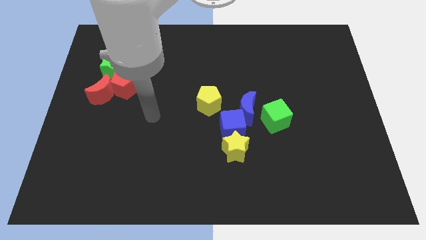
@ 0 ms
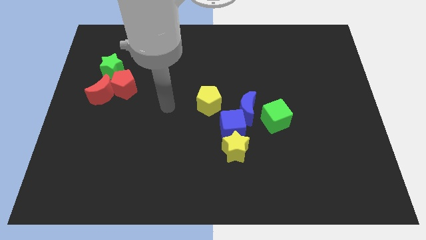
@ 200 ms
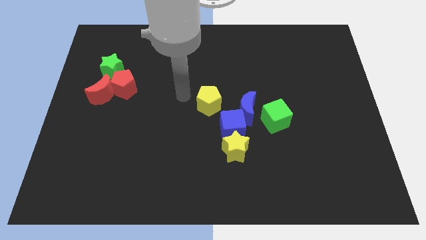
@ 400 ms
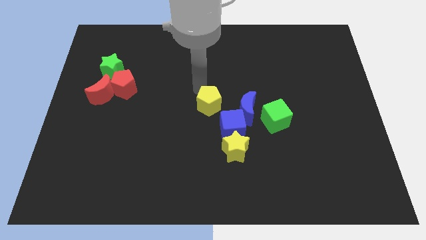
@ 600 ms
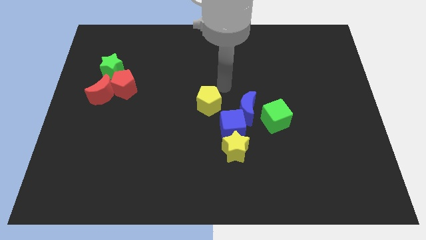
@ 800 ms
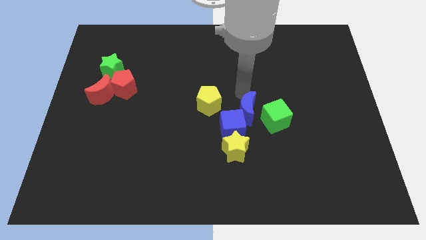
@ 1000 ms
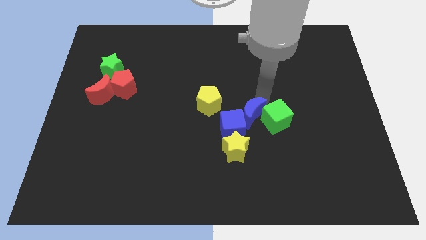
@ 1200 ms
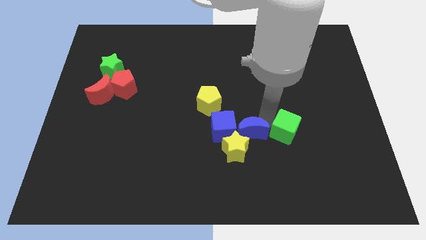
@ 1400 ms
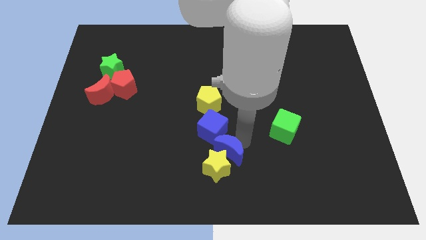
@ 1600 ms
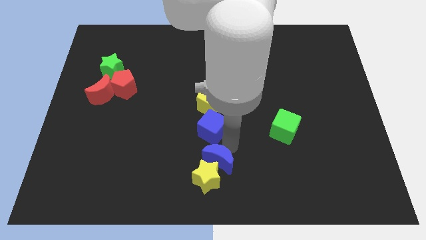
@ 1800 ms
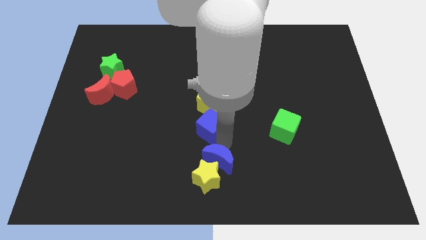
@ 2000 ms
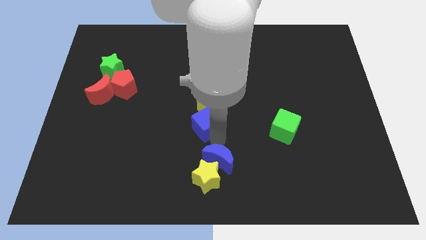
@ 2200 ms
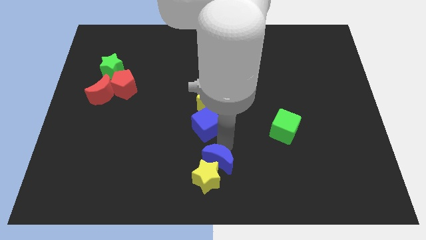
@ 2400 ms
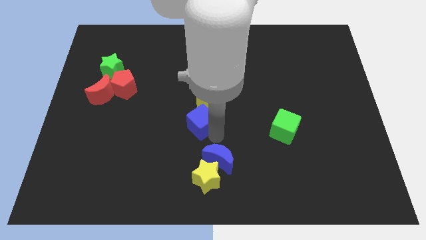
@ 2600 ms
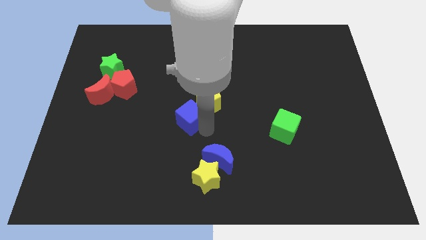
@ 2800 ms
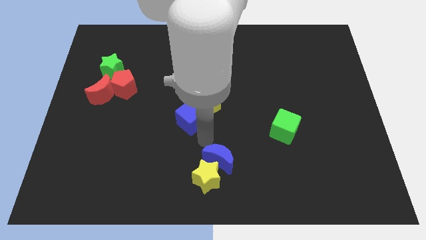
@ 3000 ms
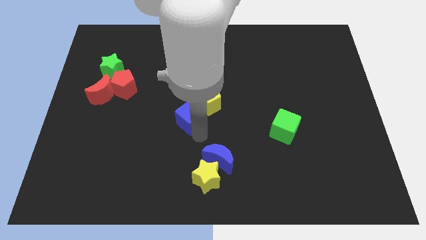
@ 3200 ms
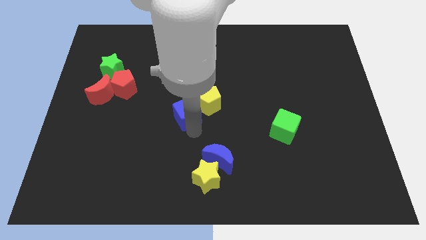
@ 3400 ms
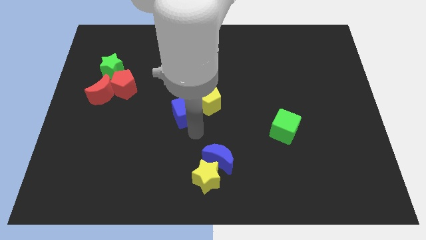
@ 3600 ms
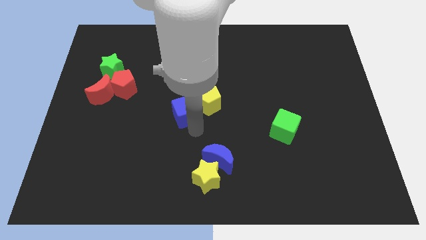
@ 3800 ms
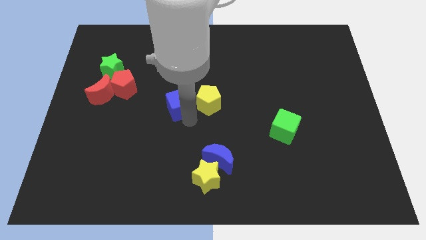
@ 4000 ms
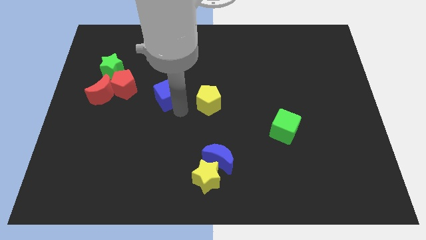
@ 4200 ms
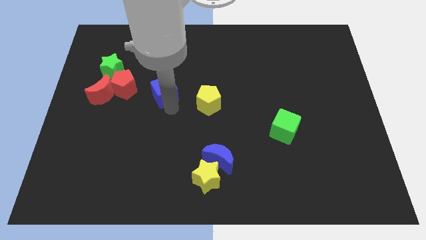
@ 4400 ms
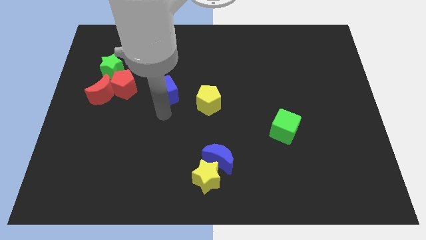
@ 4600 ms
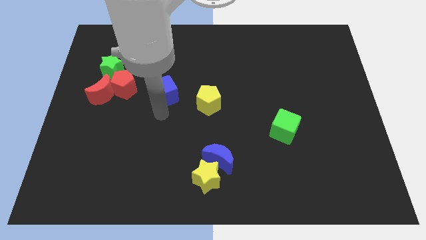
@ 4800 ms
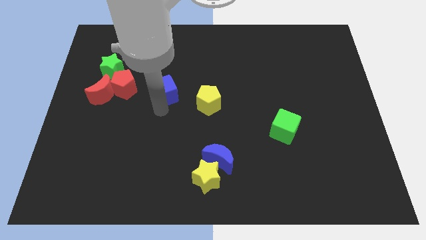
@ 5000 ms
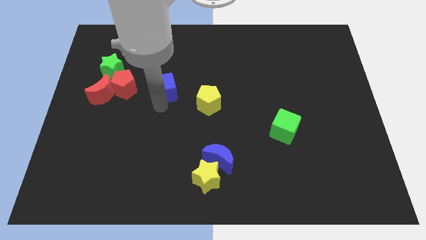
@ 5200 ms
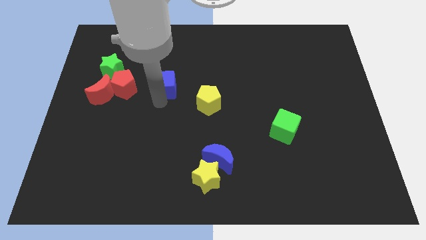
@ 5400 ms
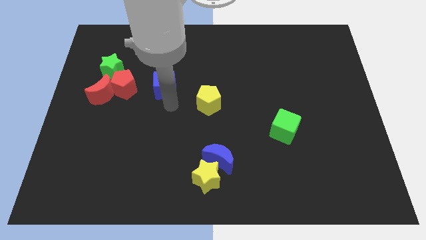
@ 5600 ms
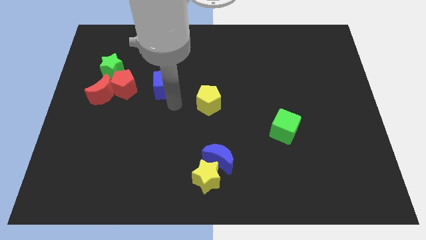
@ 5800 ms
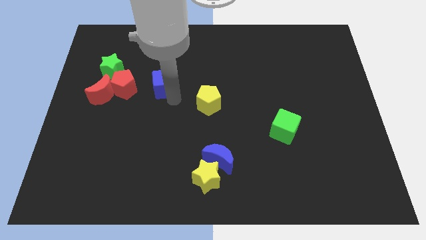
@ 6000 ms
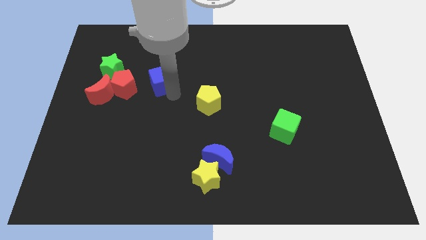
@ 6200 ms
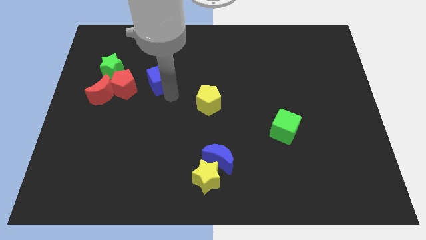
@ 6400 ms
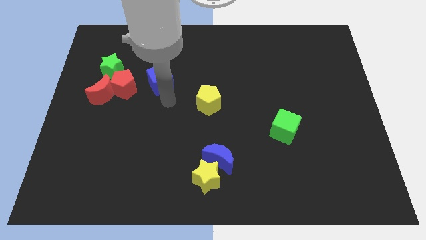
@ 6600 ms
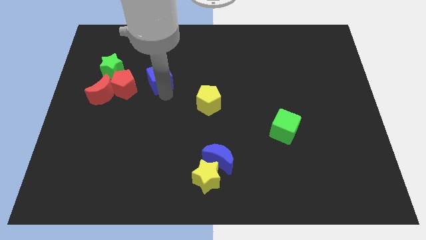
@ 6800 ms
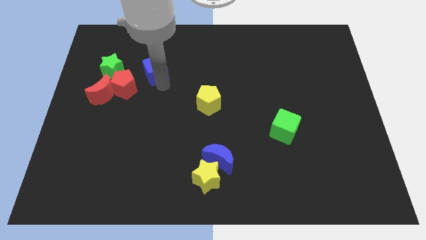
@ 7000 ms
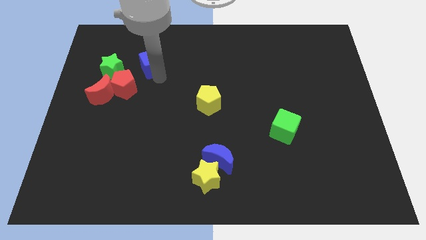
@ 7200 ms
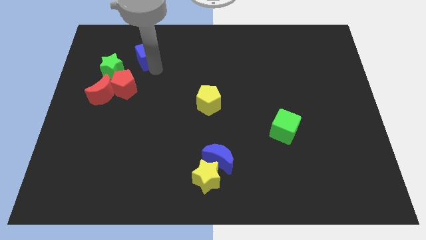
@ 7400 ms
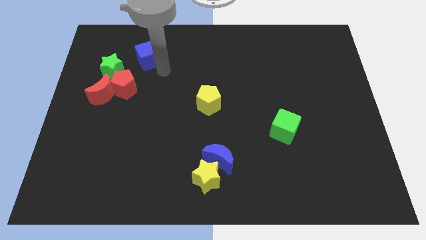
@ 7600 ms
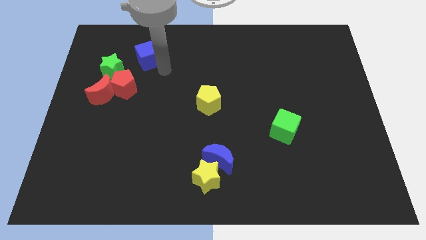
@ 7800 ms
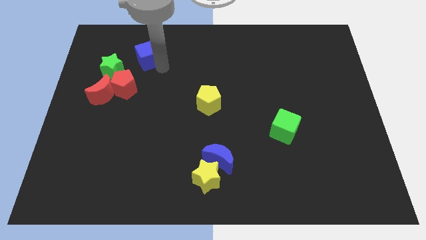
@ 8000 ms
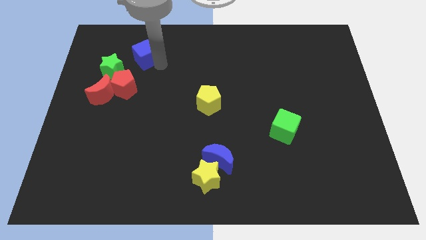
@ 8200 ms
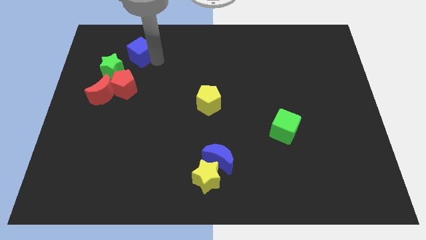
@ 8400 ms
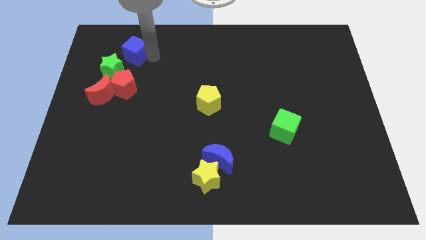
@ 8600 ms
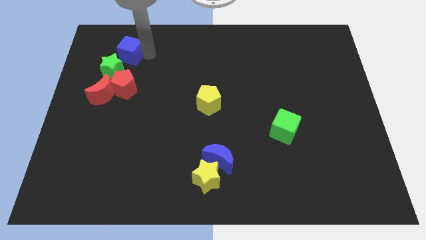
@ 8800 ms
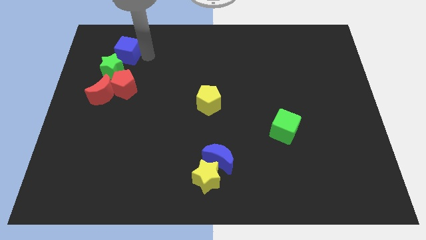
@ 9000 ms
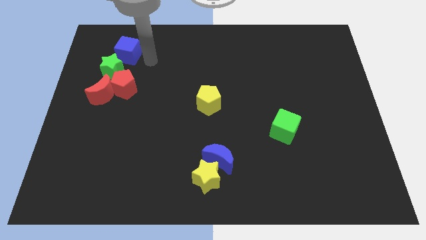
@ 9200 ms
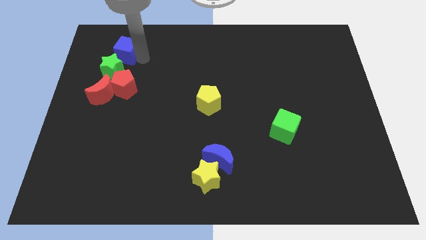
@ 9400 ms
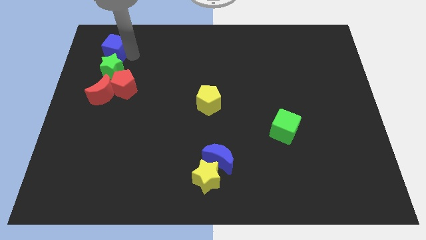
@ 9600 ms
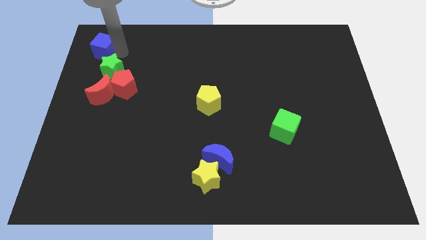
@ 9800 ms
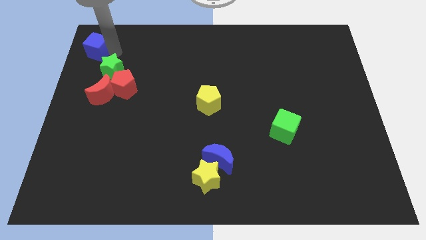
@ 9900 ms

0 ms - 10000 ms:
slide the blue cube to the top left

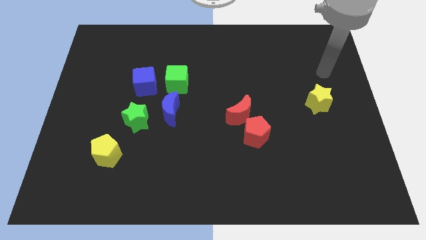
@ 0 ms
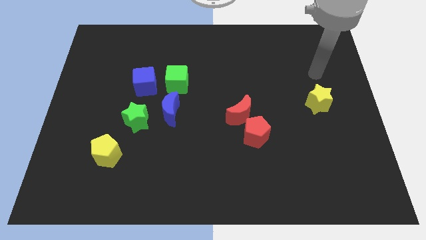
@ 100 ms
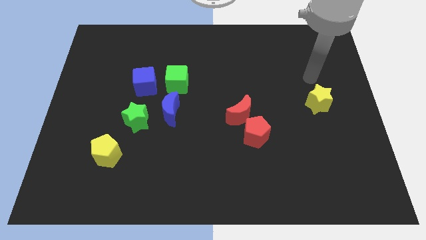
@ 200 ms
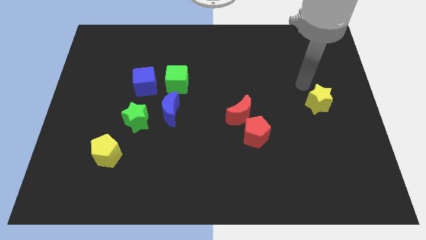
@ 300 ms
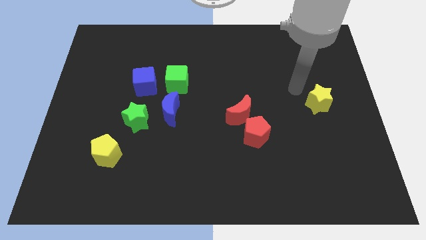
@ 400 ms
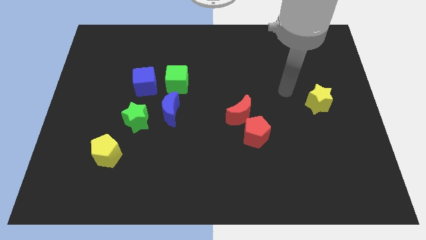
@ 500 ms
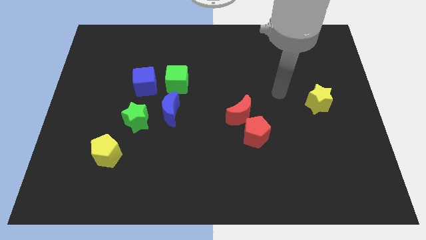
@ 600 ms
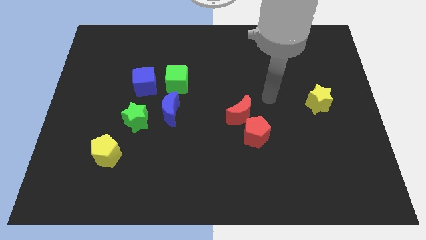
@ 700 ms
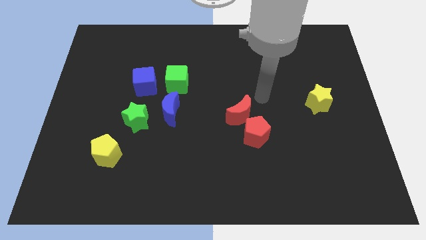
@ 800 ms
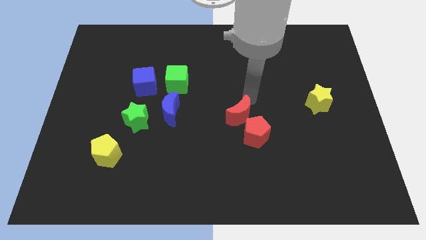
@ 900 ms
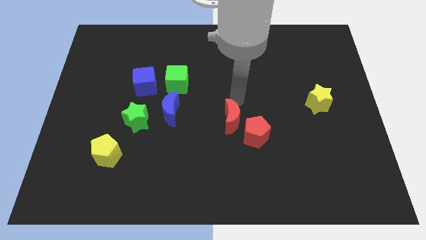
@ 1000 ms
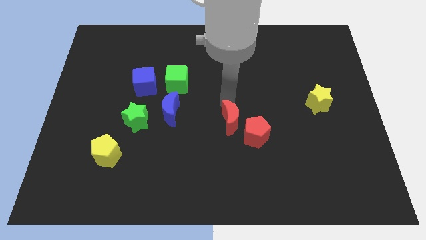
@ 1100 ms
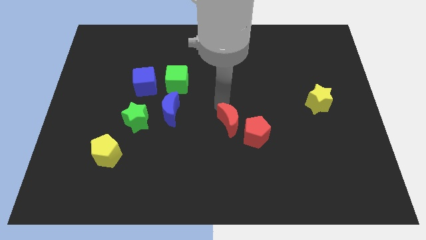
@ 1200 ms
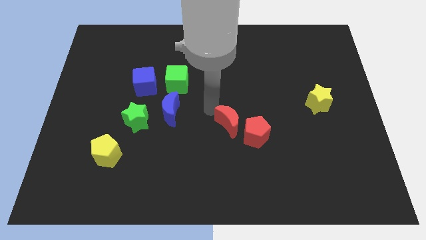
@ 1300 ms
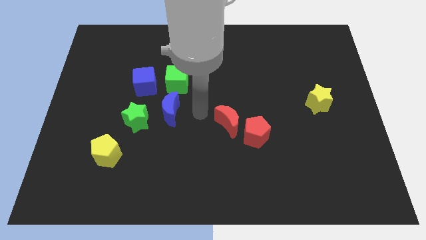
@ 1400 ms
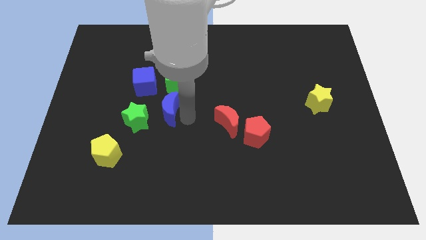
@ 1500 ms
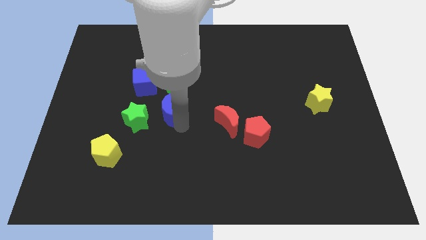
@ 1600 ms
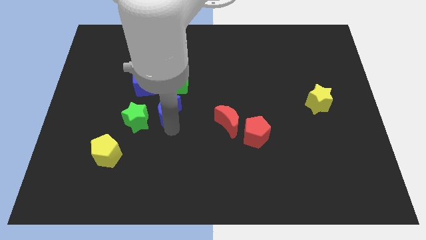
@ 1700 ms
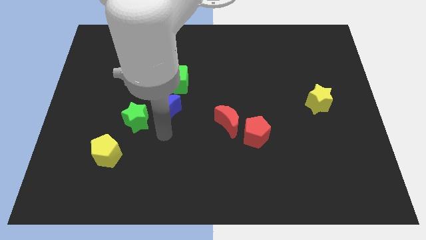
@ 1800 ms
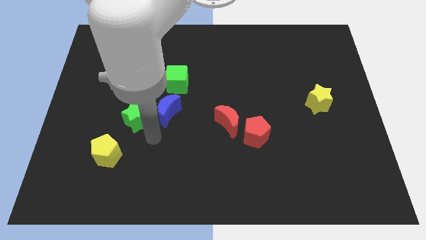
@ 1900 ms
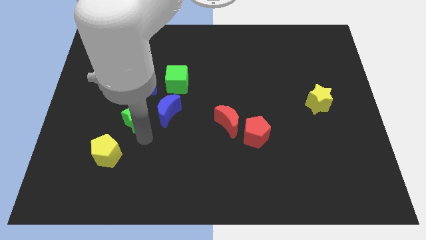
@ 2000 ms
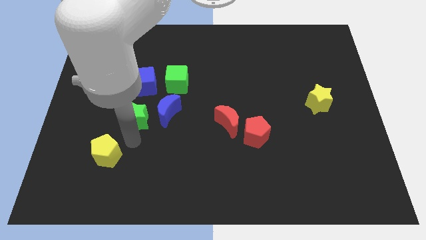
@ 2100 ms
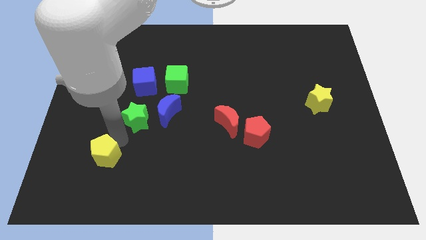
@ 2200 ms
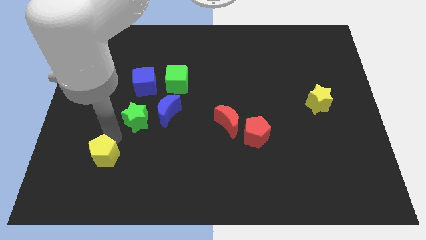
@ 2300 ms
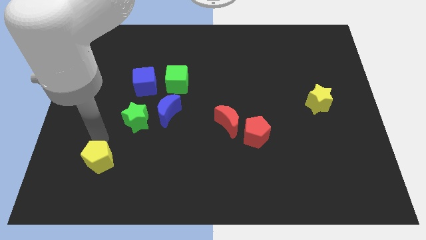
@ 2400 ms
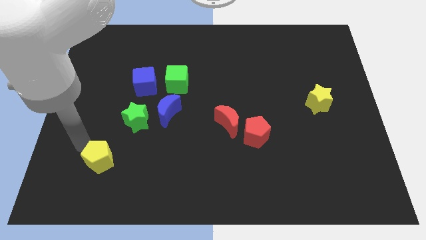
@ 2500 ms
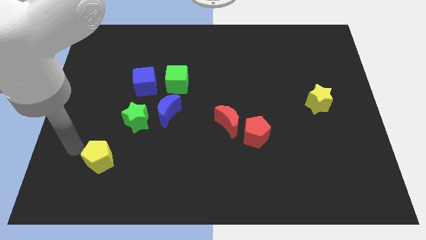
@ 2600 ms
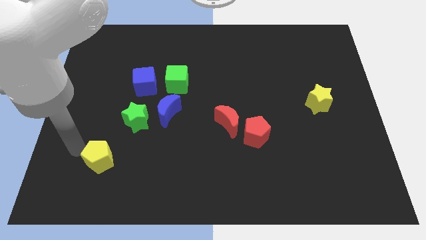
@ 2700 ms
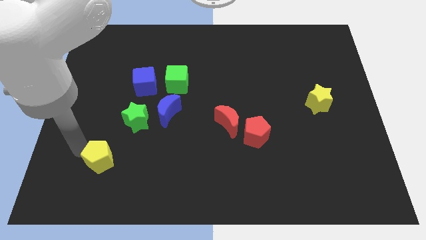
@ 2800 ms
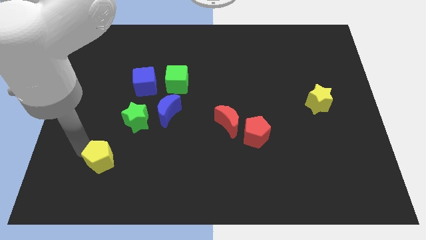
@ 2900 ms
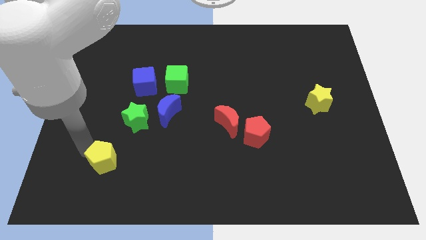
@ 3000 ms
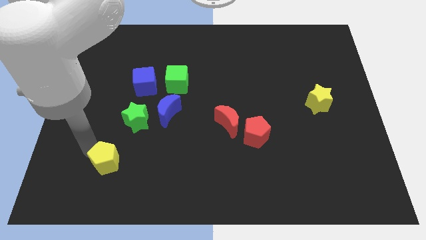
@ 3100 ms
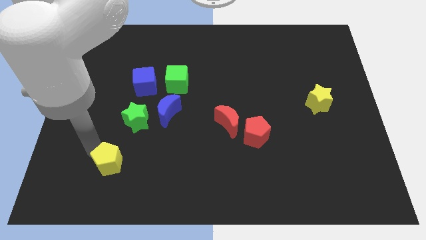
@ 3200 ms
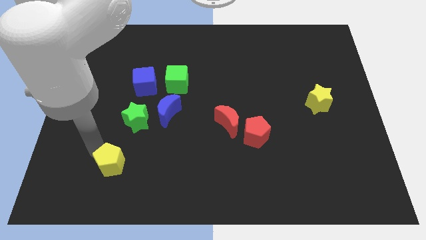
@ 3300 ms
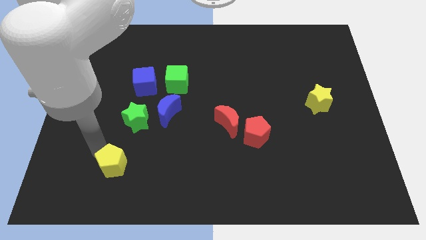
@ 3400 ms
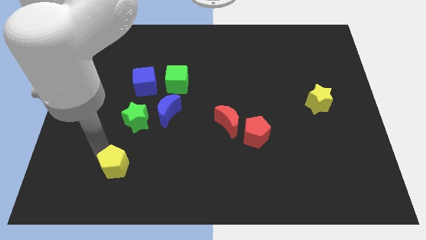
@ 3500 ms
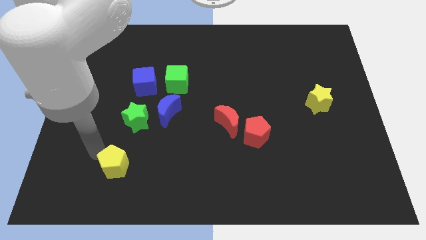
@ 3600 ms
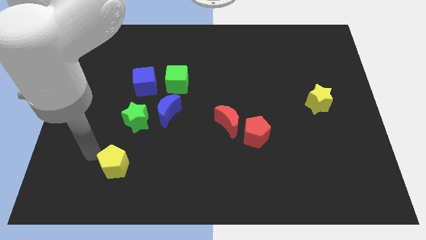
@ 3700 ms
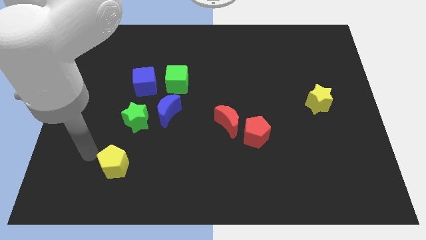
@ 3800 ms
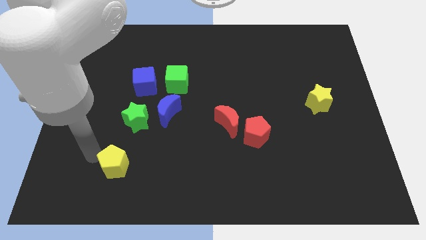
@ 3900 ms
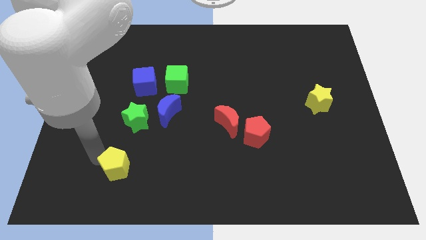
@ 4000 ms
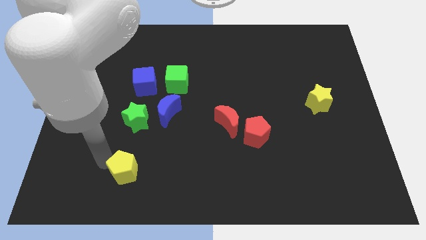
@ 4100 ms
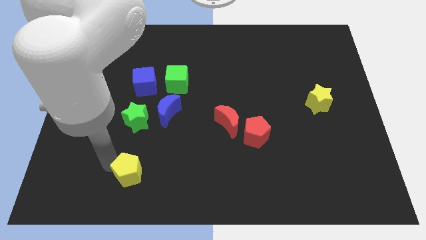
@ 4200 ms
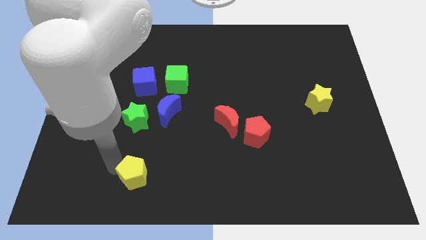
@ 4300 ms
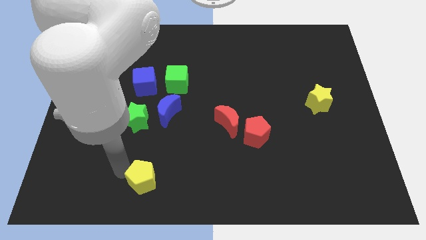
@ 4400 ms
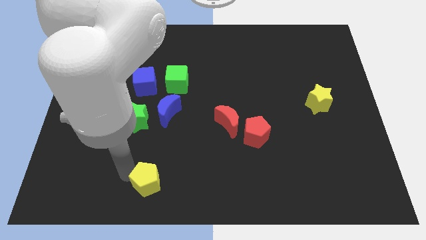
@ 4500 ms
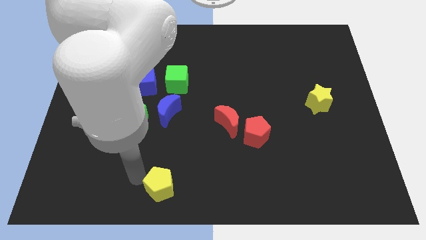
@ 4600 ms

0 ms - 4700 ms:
push the yellow pentagon to the bottom
